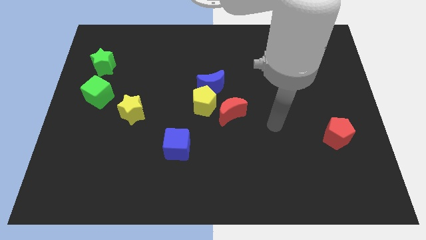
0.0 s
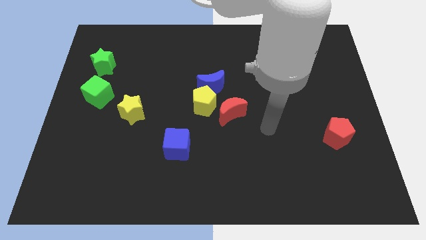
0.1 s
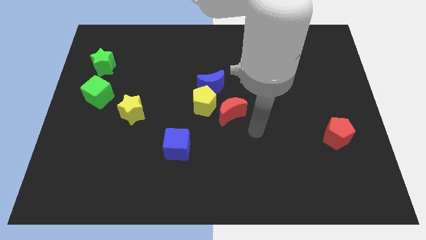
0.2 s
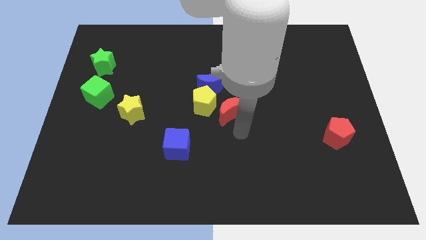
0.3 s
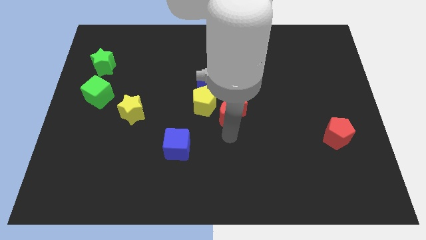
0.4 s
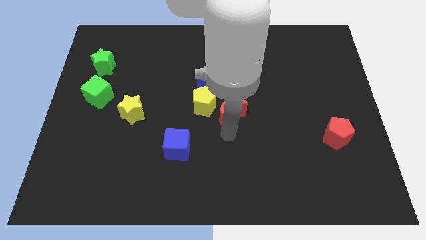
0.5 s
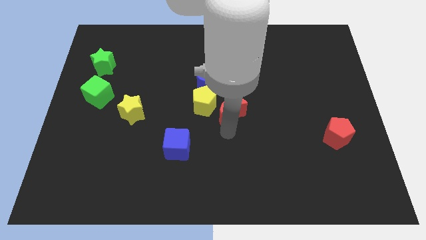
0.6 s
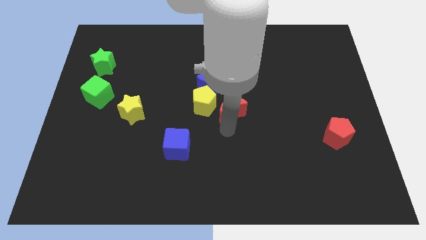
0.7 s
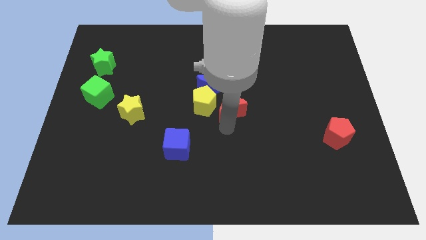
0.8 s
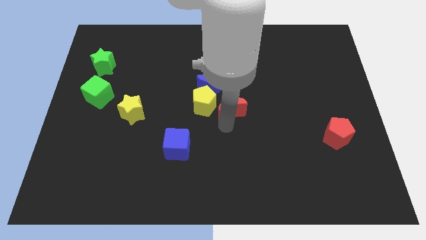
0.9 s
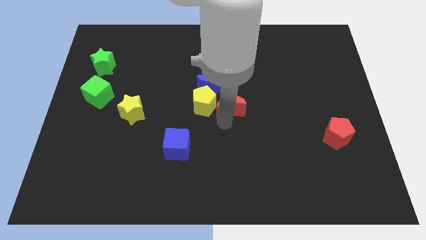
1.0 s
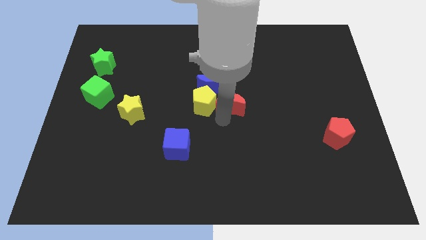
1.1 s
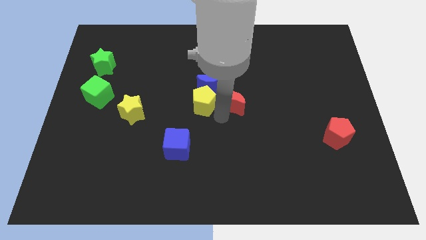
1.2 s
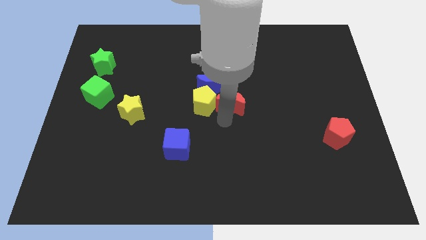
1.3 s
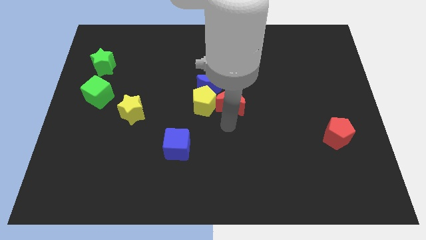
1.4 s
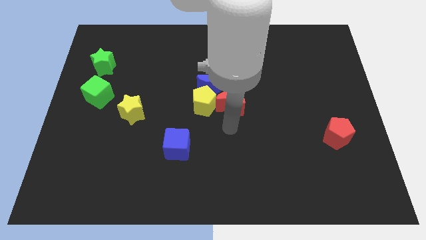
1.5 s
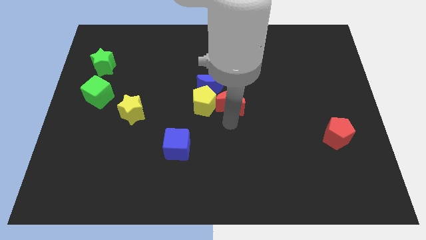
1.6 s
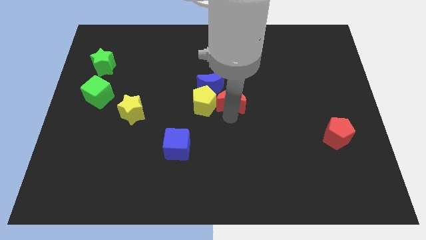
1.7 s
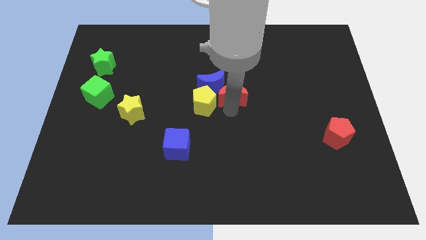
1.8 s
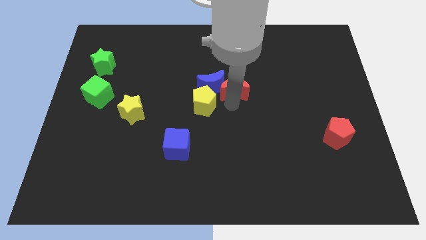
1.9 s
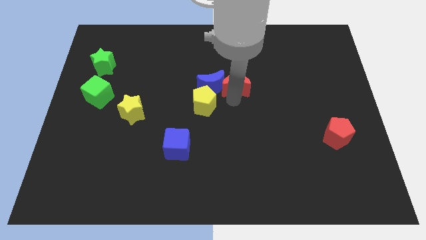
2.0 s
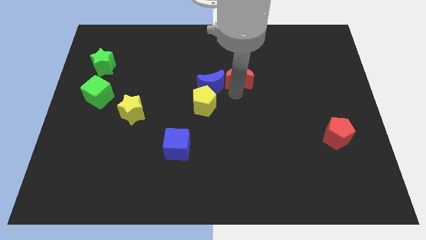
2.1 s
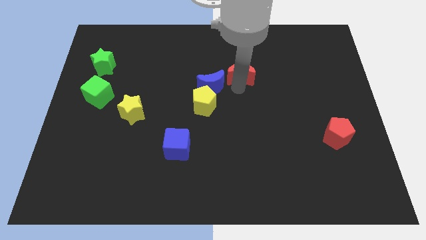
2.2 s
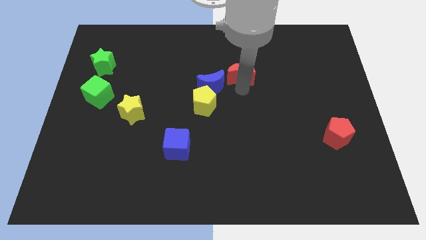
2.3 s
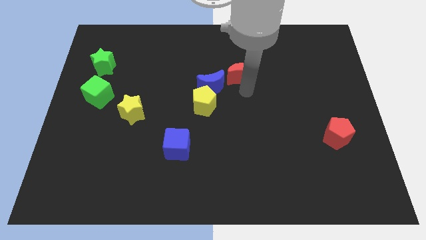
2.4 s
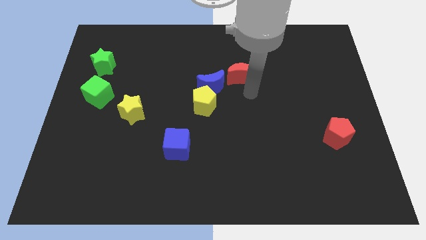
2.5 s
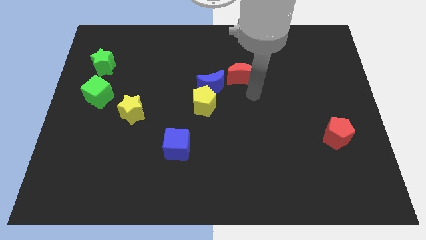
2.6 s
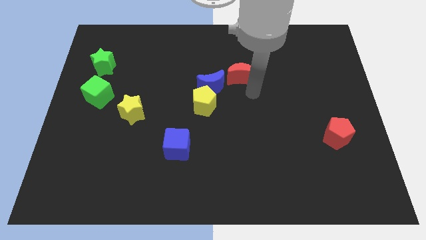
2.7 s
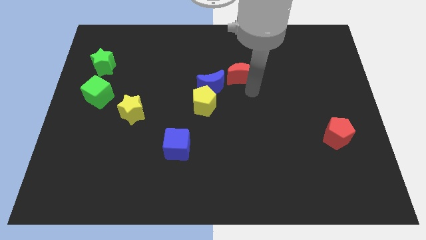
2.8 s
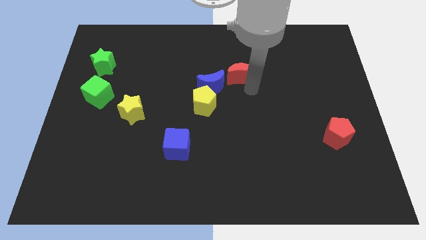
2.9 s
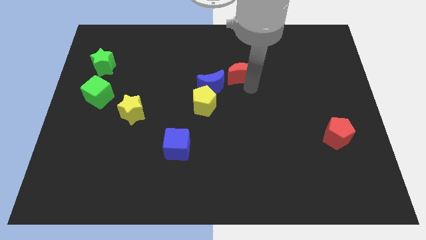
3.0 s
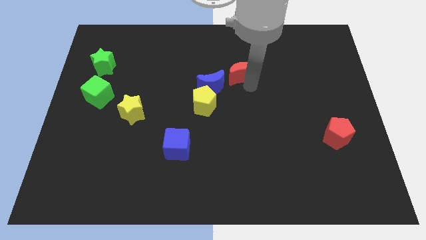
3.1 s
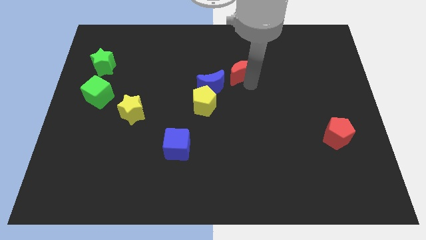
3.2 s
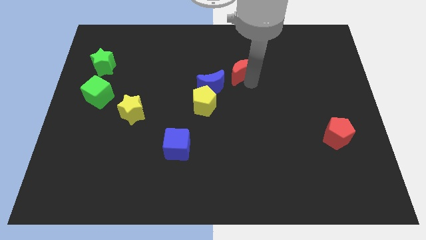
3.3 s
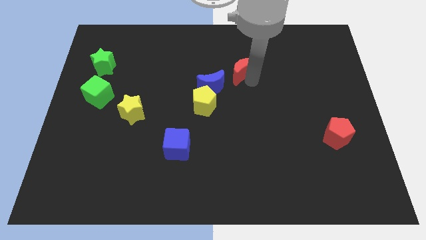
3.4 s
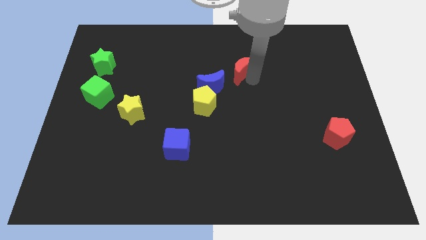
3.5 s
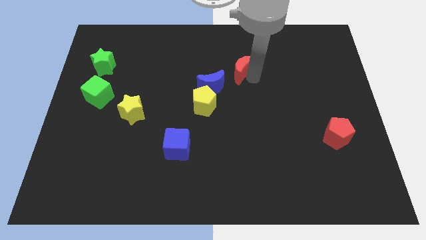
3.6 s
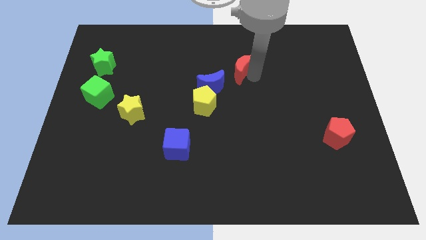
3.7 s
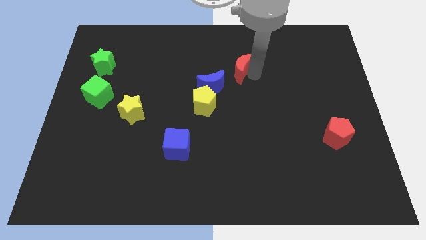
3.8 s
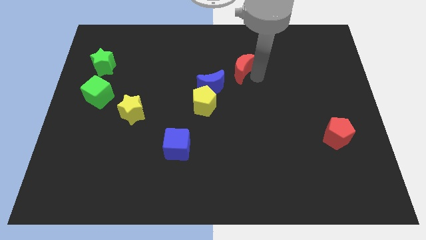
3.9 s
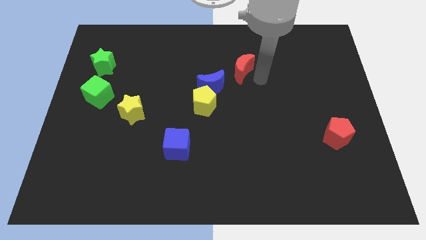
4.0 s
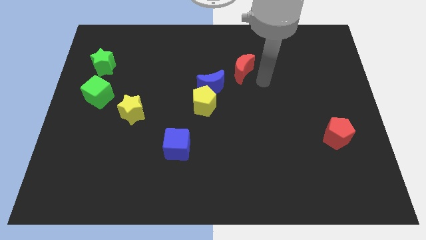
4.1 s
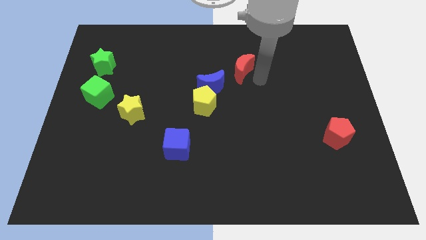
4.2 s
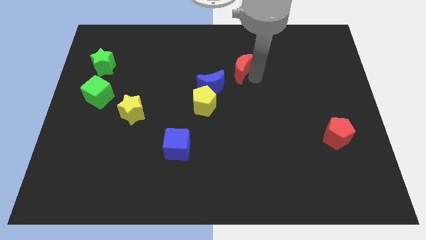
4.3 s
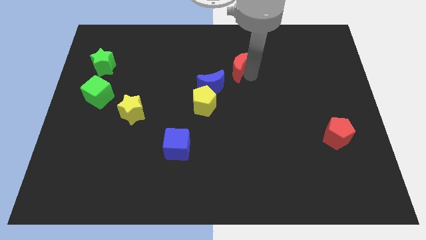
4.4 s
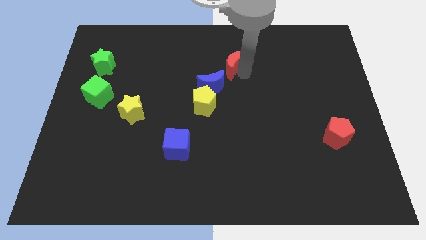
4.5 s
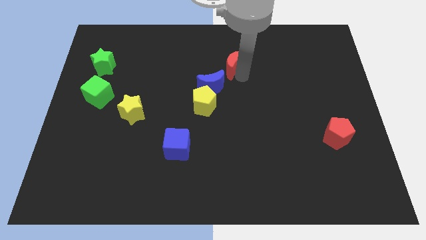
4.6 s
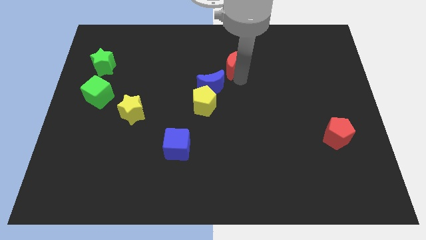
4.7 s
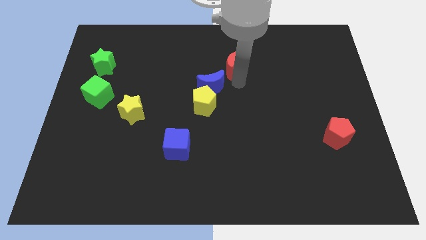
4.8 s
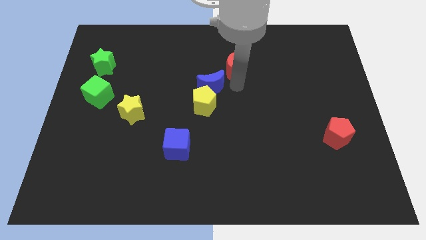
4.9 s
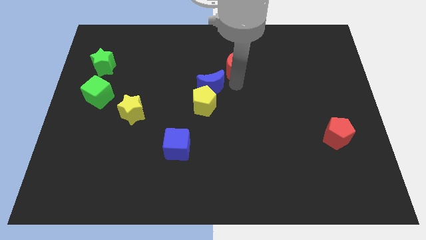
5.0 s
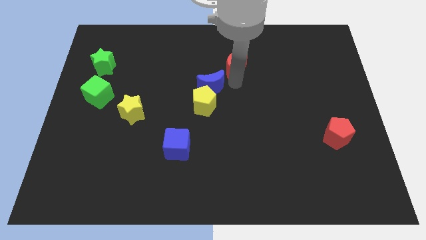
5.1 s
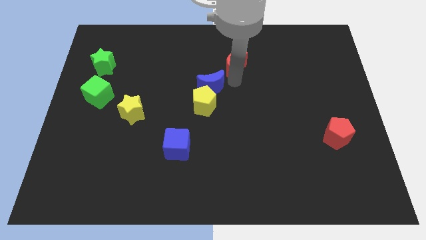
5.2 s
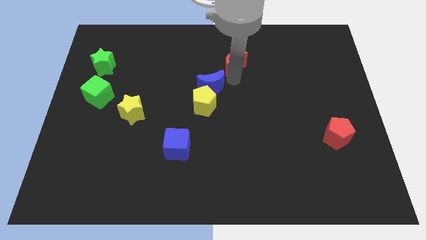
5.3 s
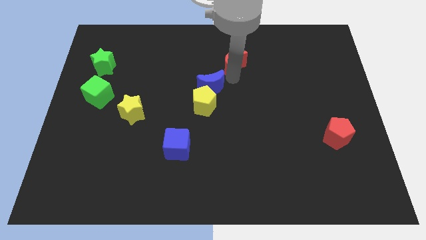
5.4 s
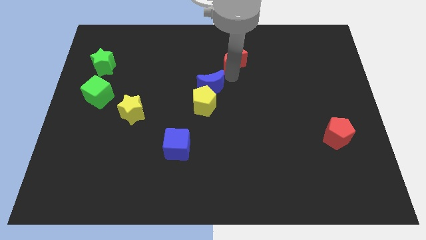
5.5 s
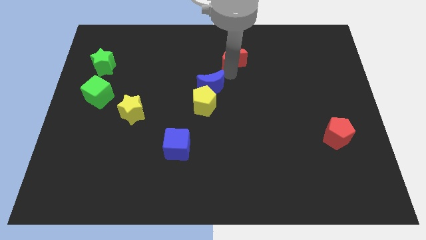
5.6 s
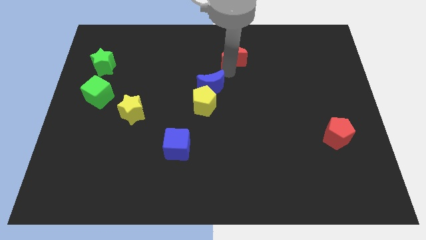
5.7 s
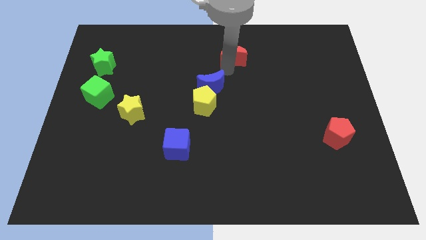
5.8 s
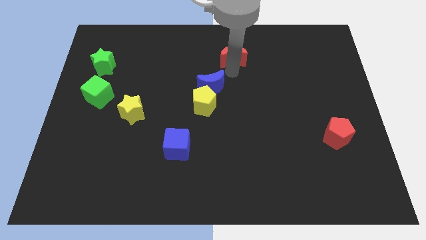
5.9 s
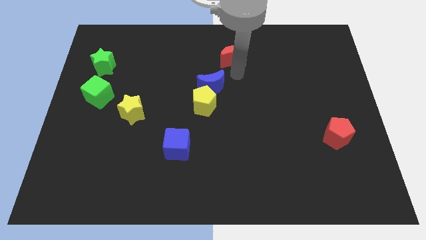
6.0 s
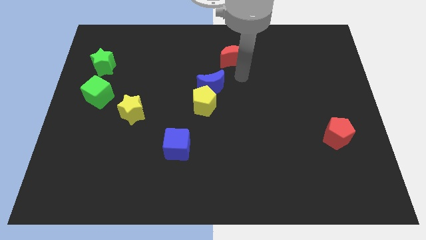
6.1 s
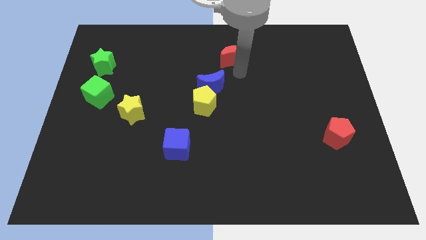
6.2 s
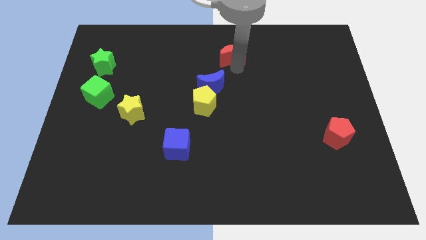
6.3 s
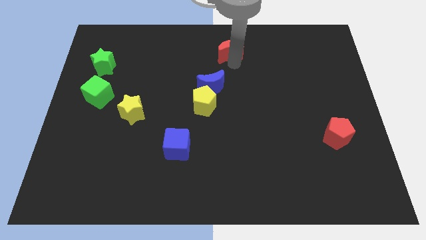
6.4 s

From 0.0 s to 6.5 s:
slide the red moon to the top

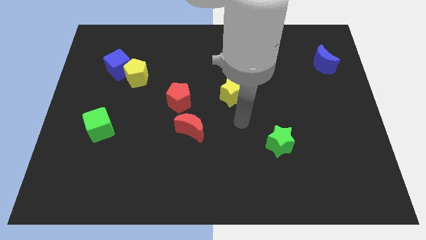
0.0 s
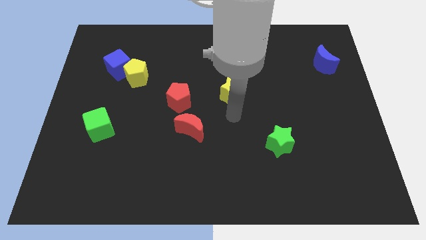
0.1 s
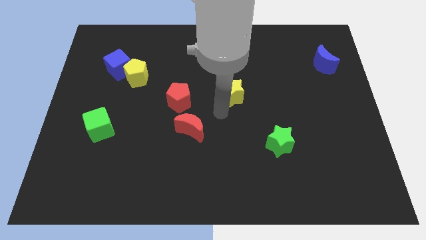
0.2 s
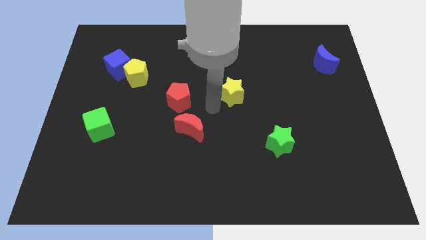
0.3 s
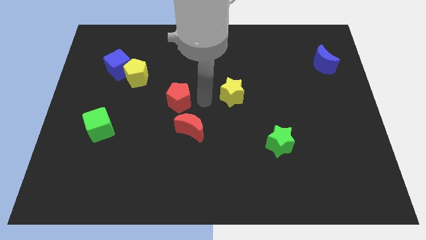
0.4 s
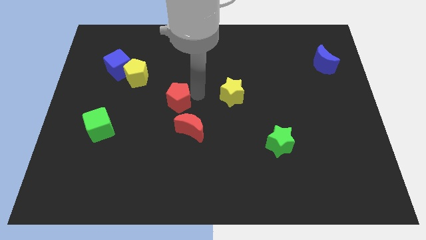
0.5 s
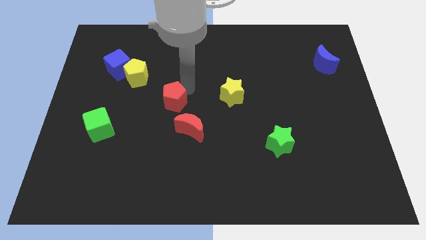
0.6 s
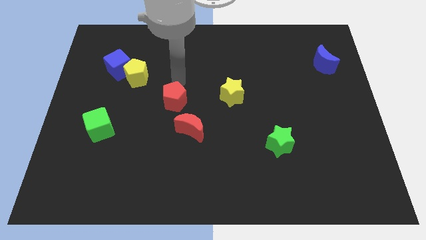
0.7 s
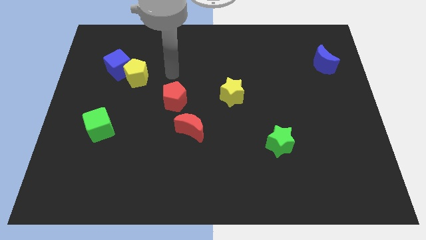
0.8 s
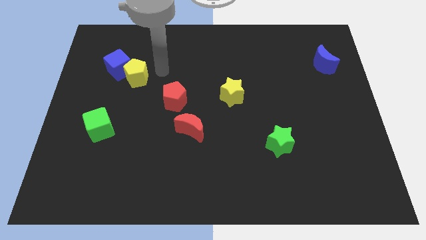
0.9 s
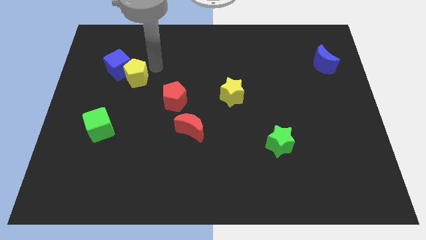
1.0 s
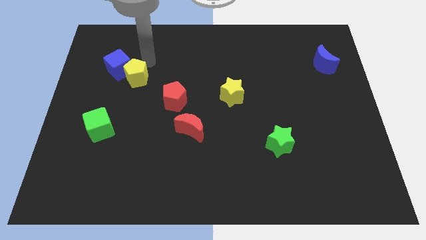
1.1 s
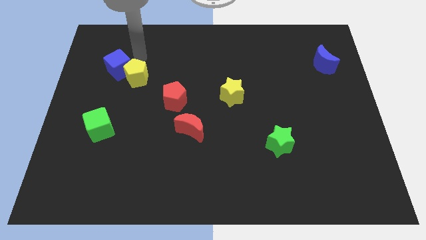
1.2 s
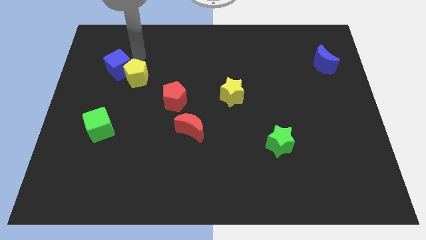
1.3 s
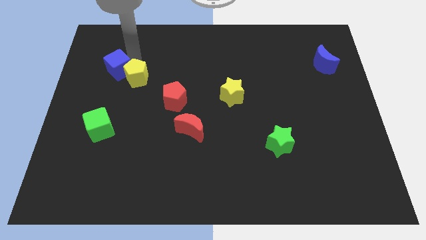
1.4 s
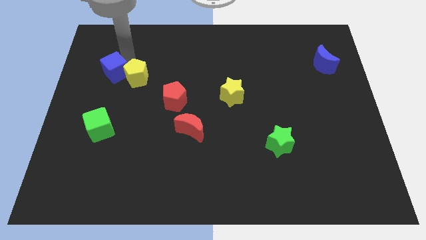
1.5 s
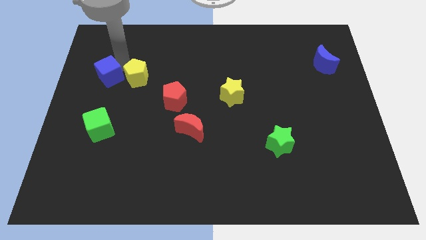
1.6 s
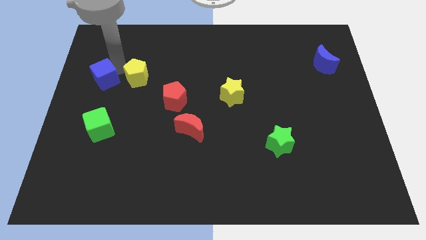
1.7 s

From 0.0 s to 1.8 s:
put the blue cube to the center left
